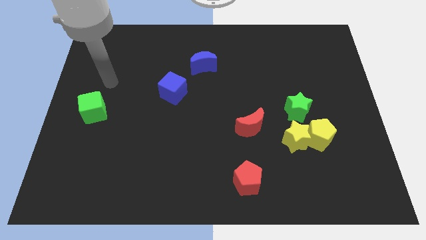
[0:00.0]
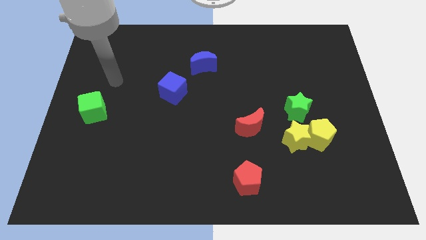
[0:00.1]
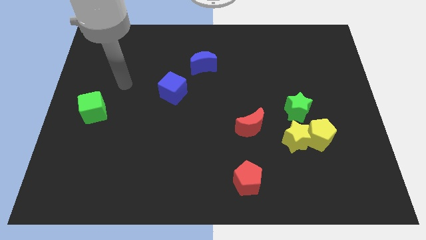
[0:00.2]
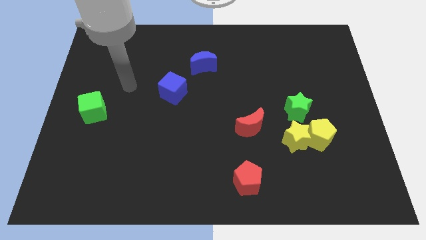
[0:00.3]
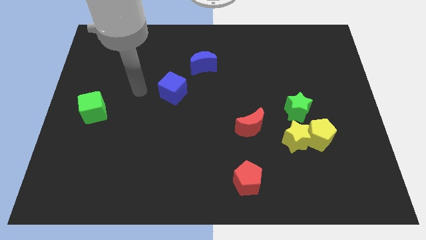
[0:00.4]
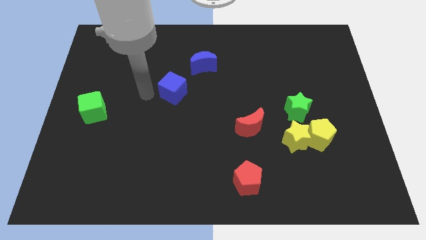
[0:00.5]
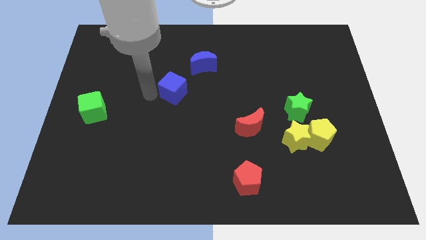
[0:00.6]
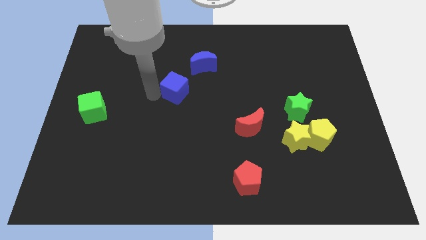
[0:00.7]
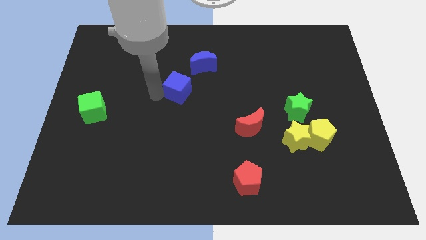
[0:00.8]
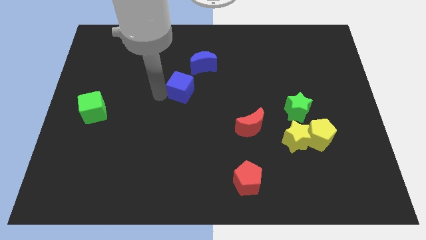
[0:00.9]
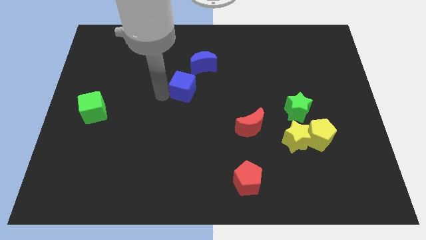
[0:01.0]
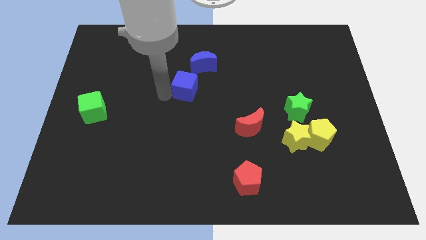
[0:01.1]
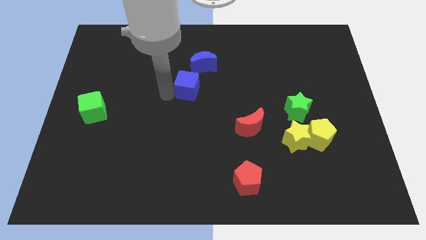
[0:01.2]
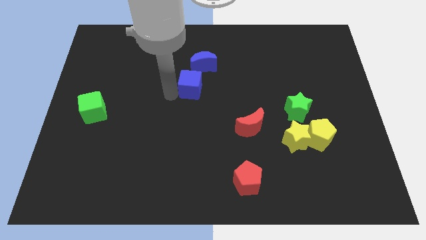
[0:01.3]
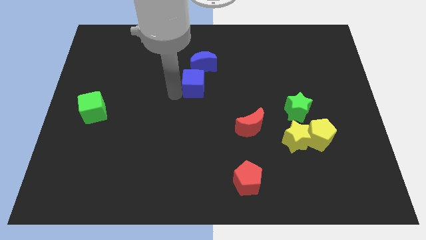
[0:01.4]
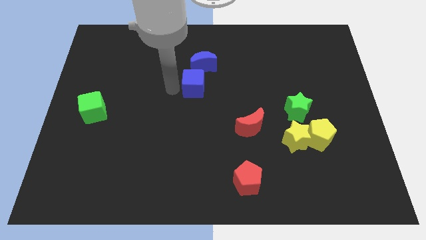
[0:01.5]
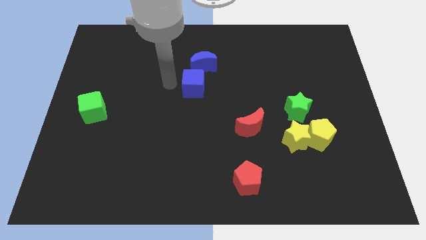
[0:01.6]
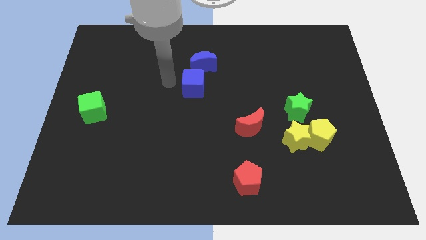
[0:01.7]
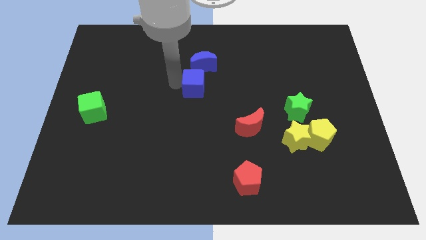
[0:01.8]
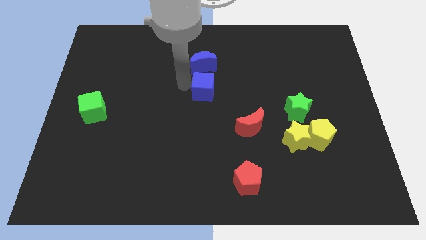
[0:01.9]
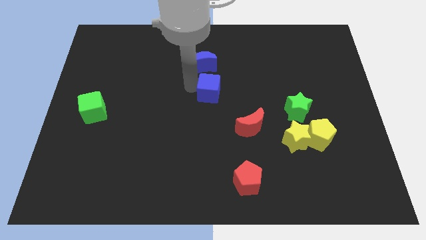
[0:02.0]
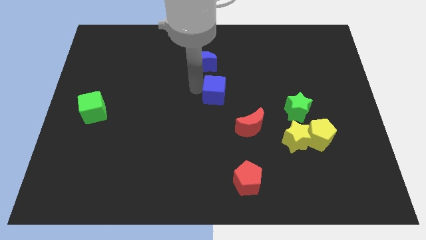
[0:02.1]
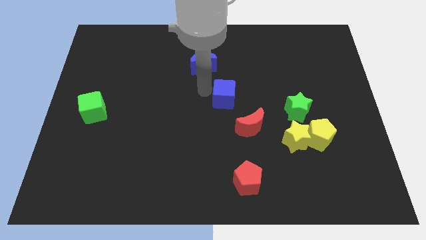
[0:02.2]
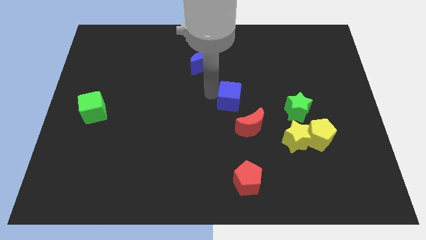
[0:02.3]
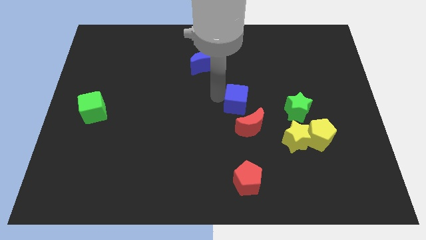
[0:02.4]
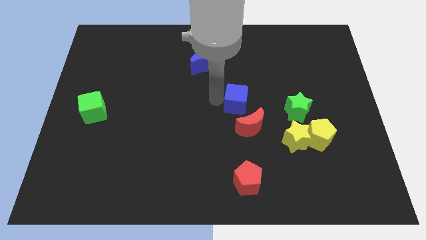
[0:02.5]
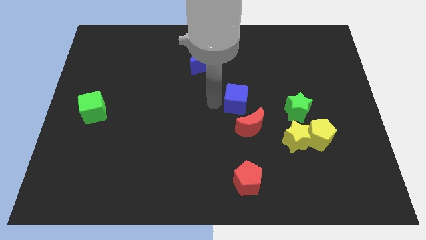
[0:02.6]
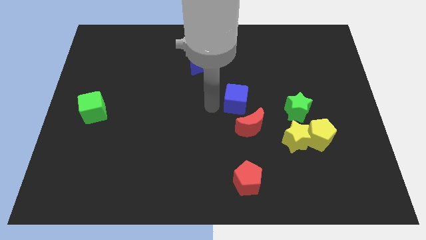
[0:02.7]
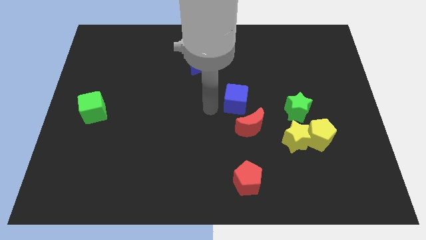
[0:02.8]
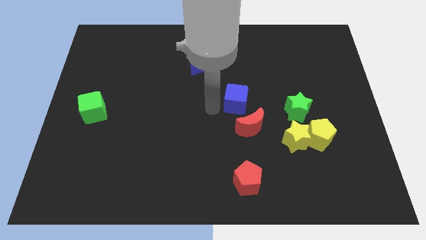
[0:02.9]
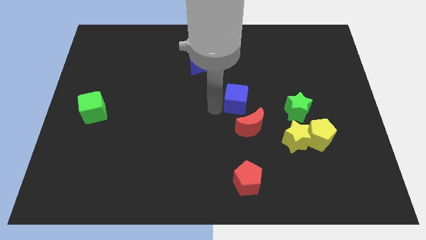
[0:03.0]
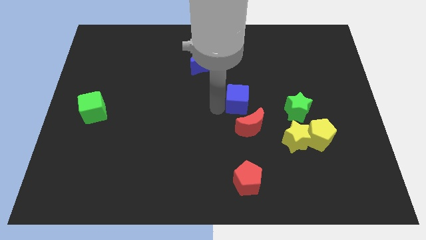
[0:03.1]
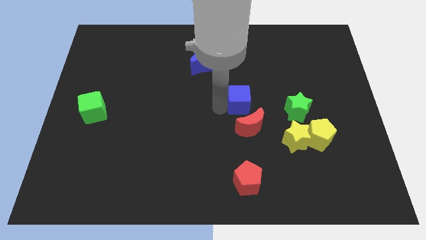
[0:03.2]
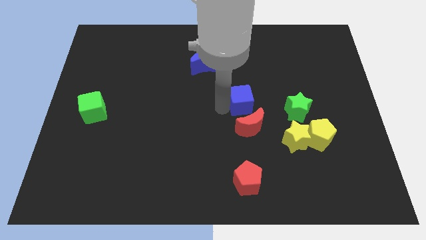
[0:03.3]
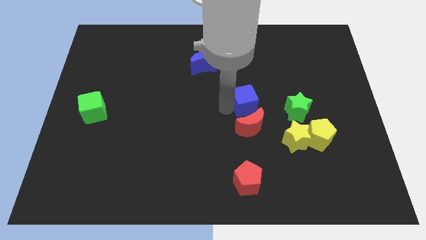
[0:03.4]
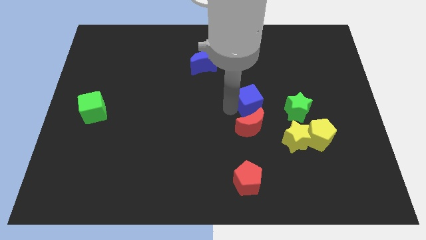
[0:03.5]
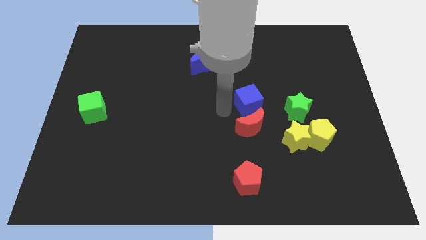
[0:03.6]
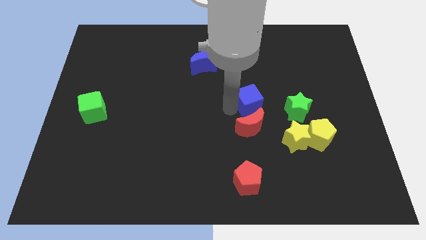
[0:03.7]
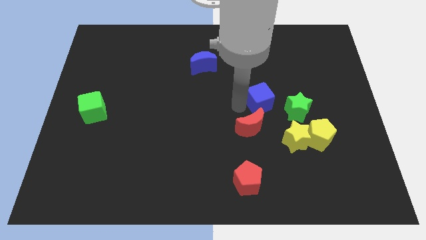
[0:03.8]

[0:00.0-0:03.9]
slide the blue cube to the right

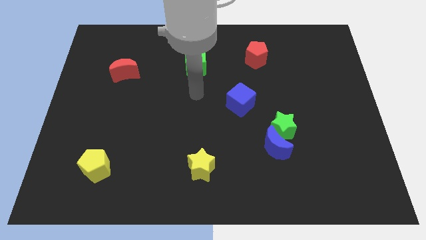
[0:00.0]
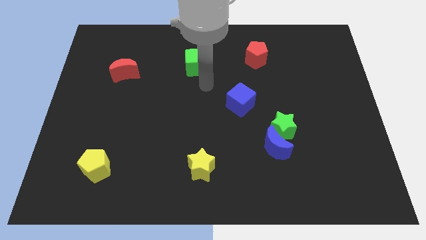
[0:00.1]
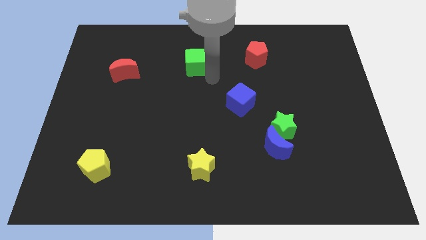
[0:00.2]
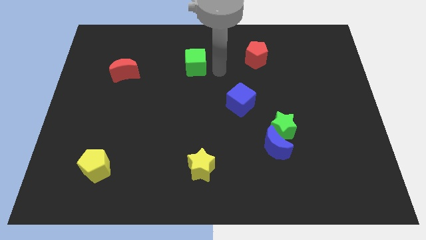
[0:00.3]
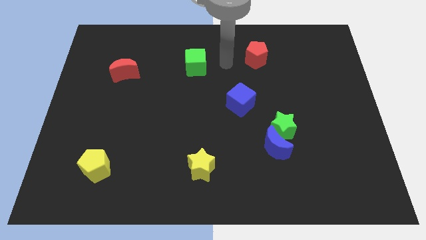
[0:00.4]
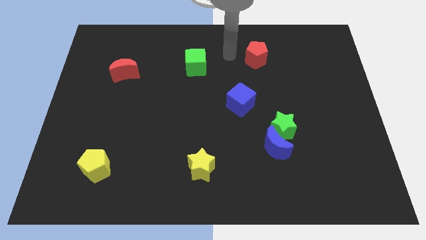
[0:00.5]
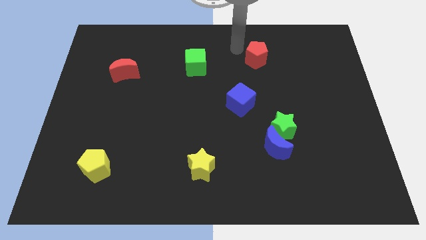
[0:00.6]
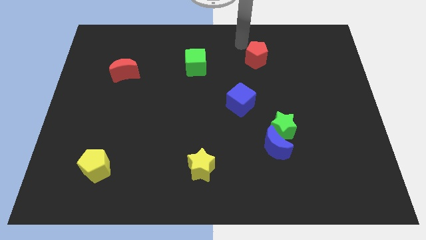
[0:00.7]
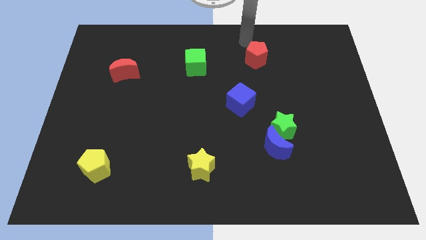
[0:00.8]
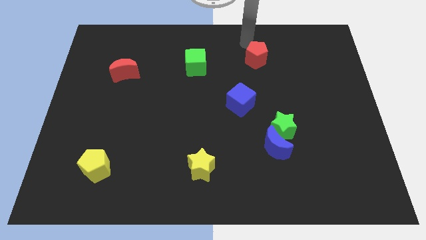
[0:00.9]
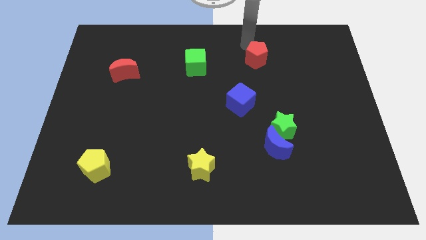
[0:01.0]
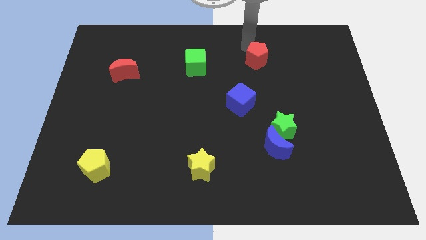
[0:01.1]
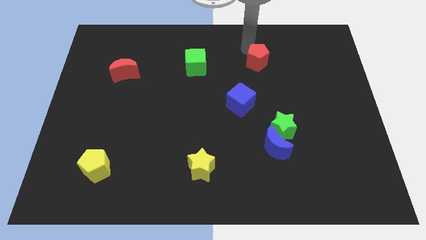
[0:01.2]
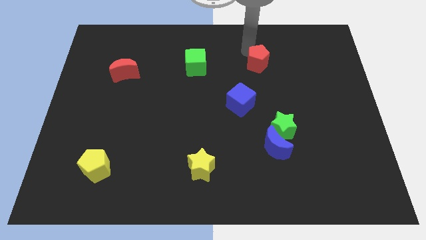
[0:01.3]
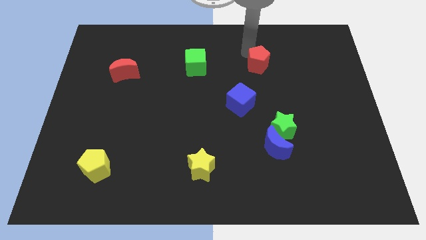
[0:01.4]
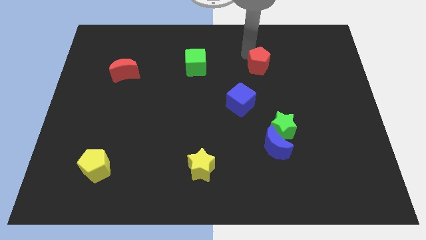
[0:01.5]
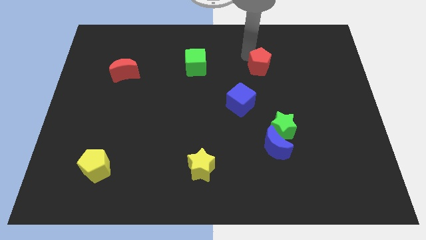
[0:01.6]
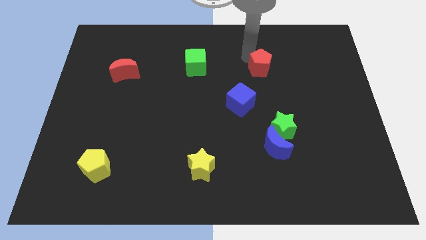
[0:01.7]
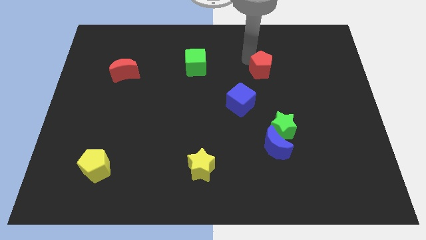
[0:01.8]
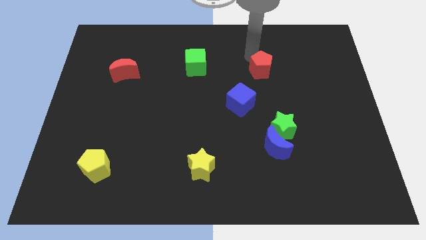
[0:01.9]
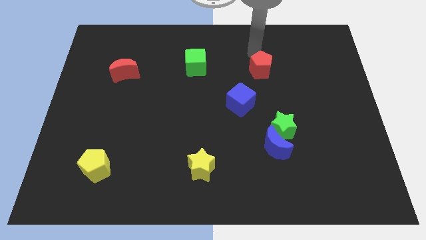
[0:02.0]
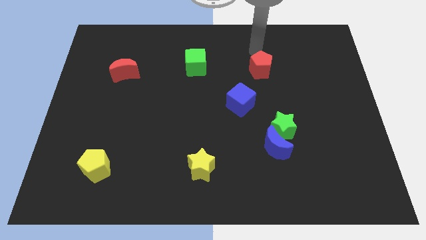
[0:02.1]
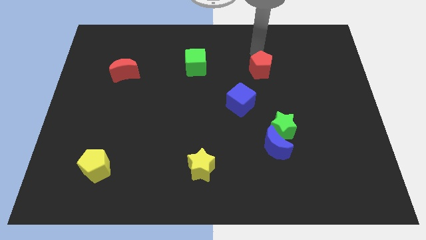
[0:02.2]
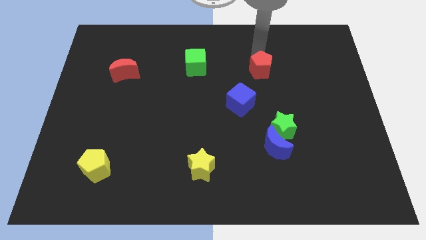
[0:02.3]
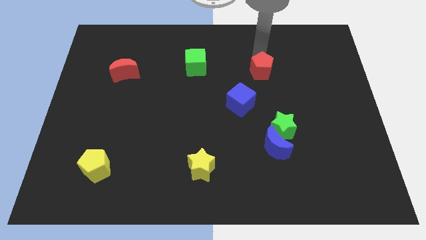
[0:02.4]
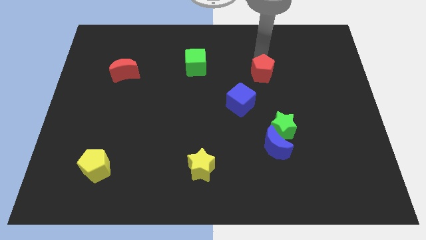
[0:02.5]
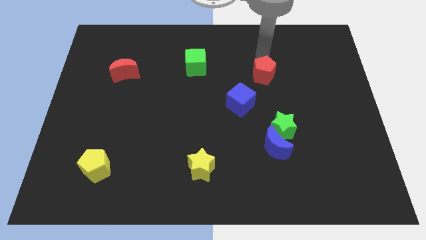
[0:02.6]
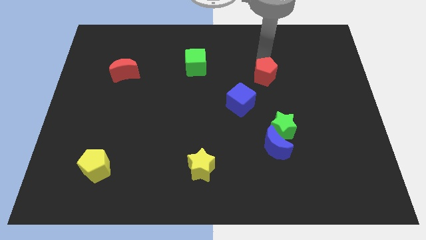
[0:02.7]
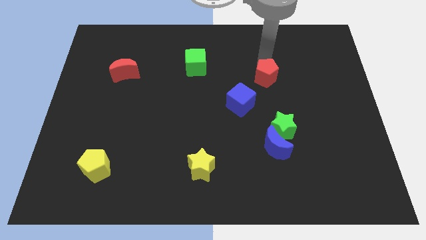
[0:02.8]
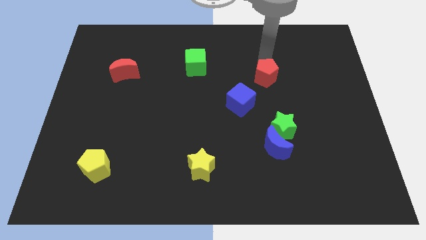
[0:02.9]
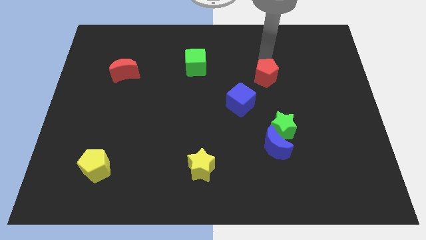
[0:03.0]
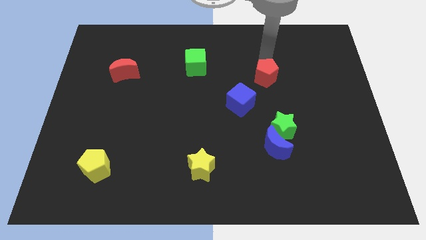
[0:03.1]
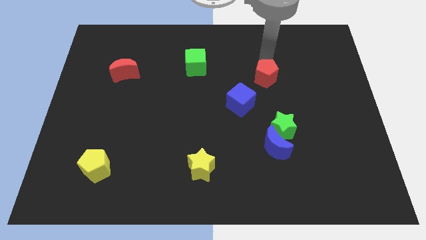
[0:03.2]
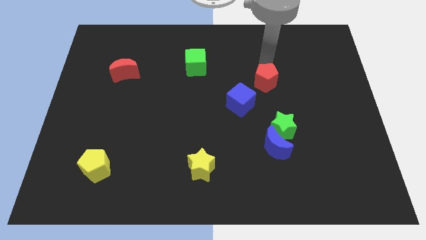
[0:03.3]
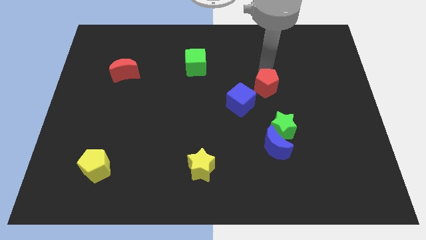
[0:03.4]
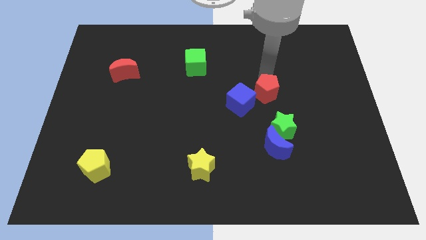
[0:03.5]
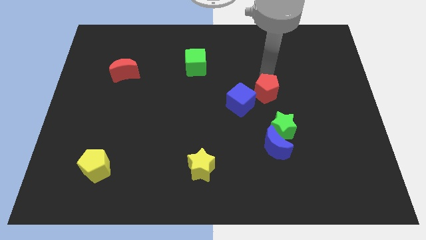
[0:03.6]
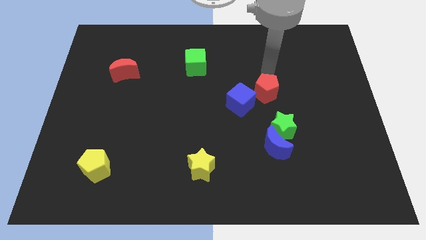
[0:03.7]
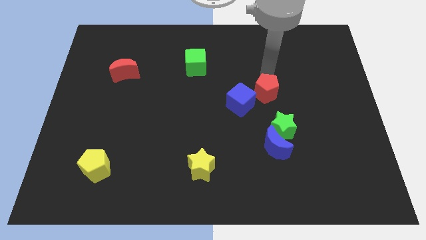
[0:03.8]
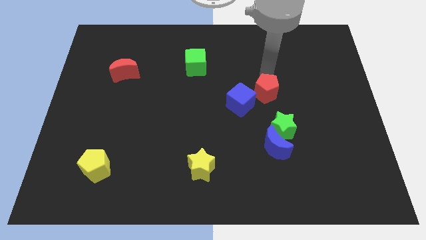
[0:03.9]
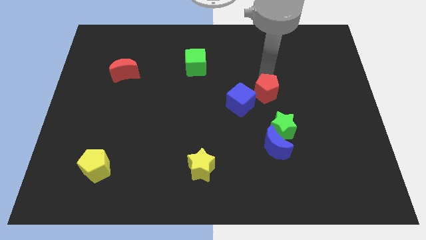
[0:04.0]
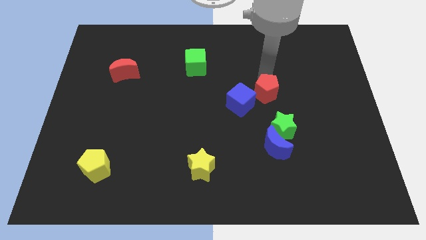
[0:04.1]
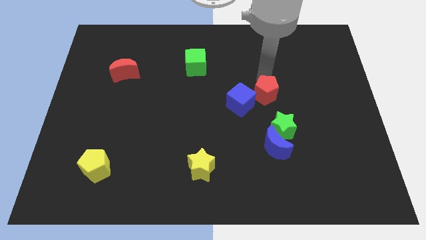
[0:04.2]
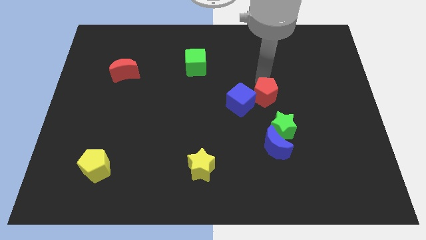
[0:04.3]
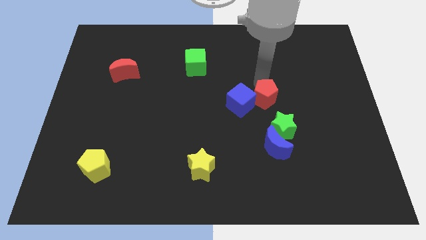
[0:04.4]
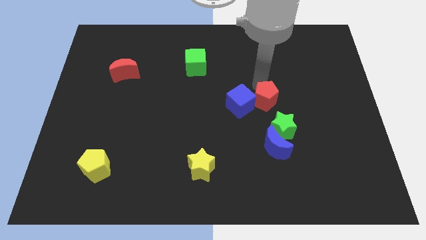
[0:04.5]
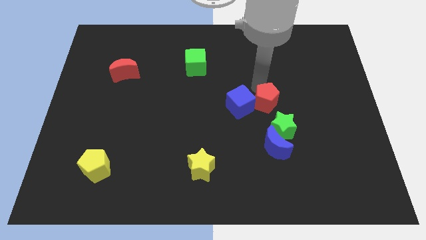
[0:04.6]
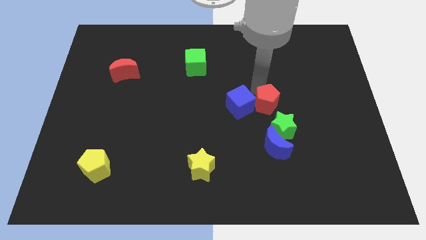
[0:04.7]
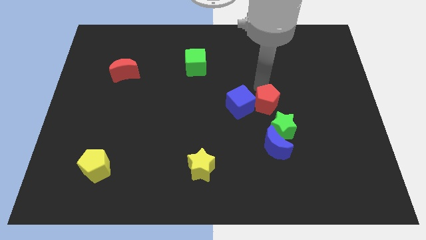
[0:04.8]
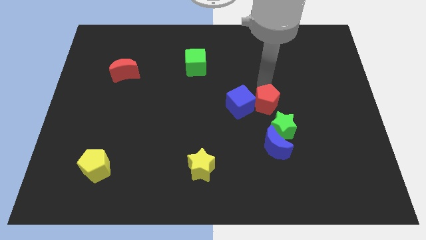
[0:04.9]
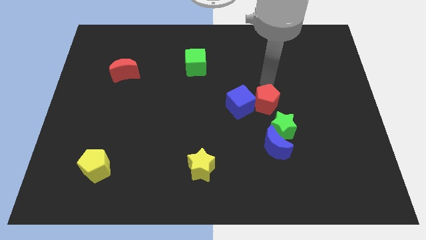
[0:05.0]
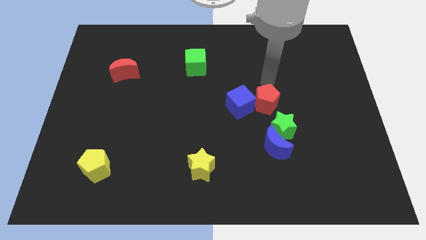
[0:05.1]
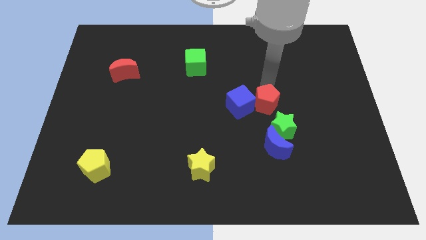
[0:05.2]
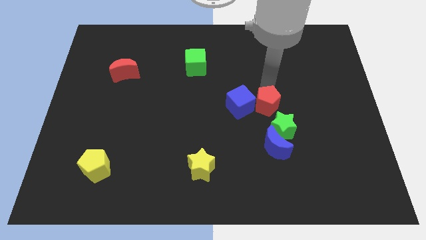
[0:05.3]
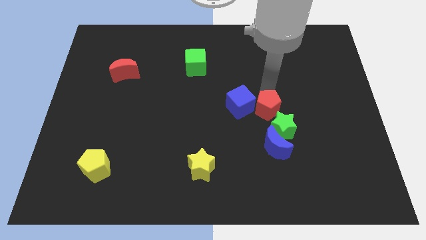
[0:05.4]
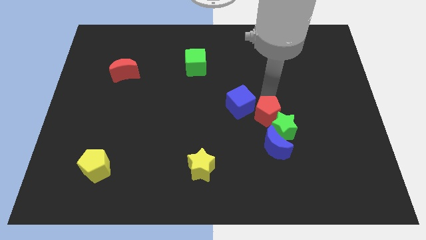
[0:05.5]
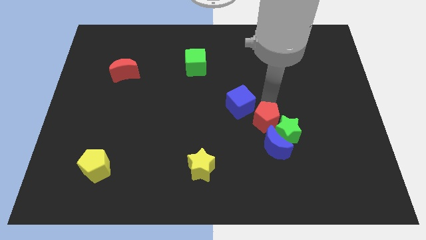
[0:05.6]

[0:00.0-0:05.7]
move the red pentagon downwards
